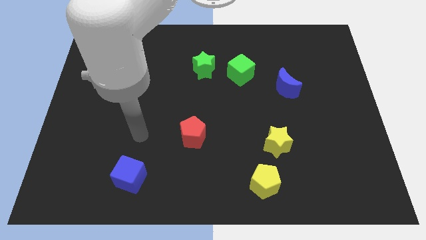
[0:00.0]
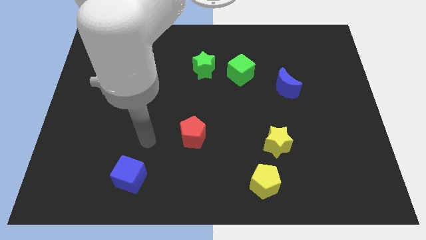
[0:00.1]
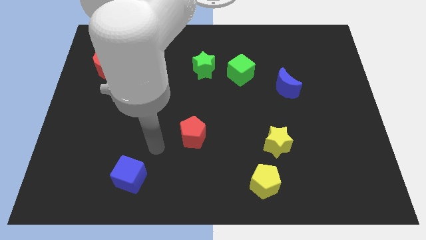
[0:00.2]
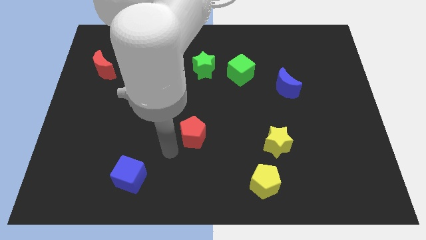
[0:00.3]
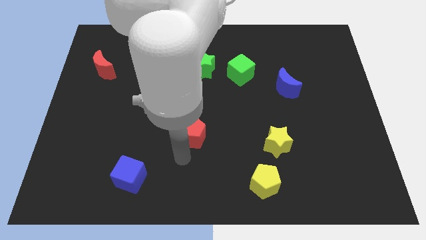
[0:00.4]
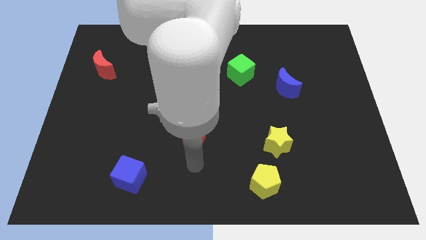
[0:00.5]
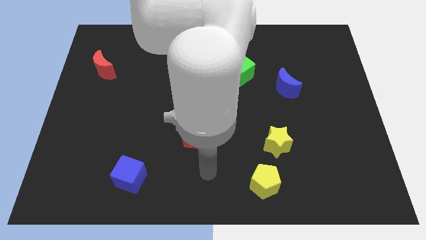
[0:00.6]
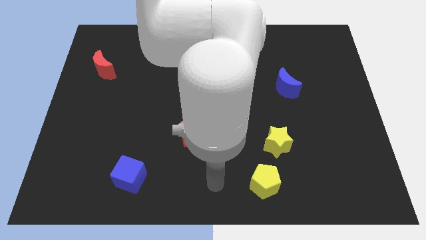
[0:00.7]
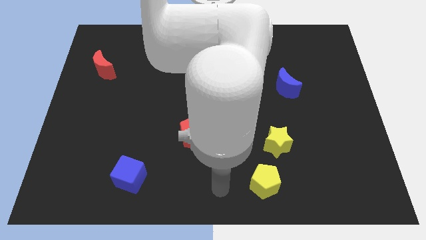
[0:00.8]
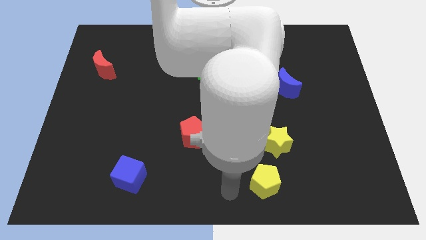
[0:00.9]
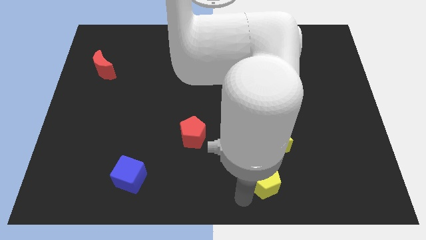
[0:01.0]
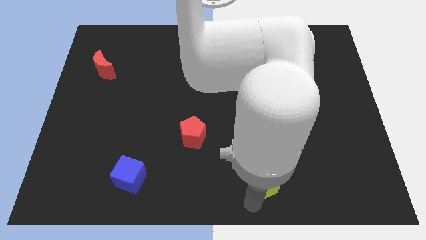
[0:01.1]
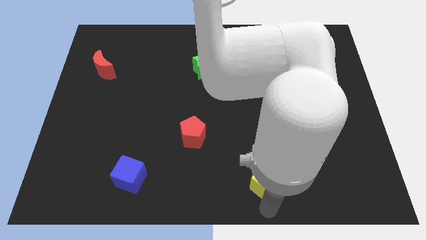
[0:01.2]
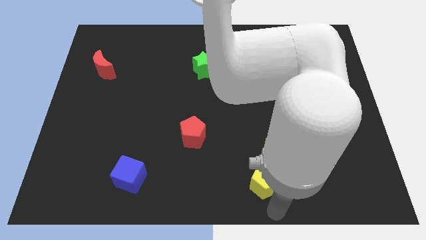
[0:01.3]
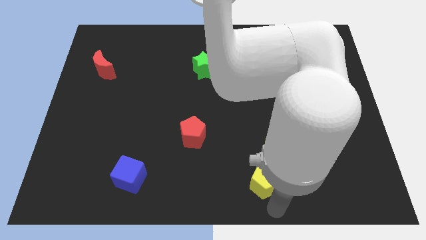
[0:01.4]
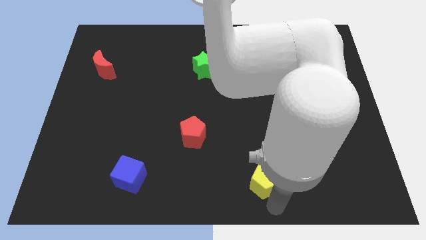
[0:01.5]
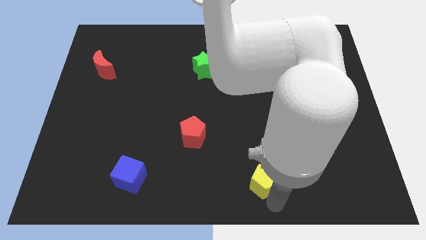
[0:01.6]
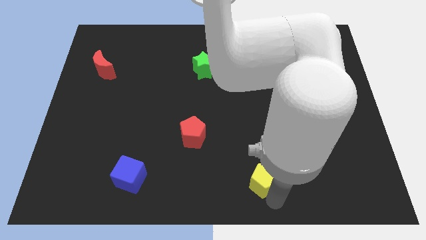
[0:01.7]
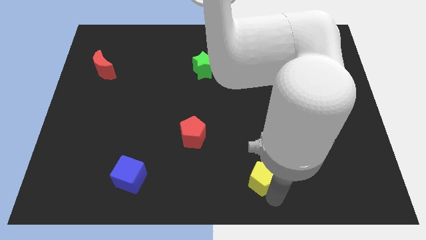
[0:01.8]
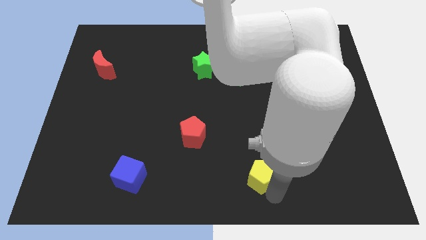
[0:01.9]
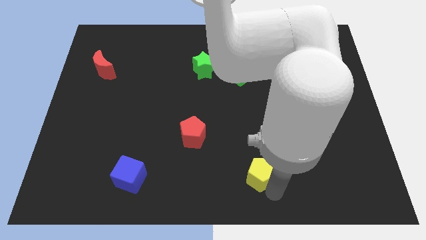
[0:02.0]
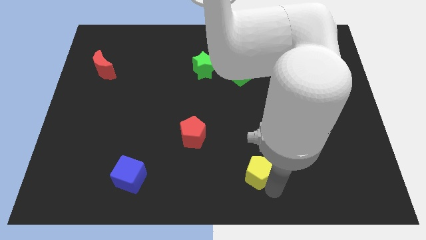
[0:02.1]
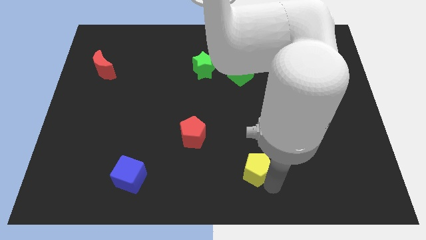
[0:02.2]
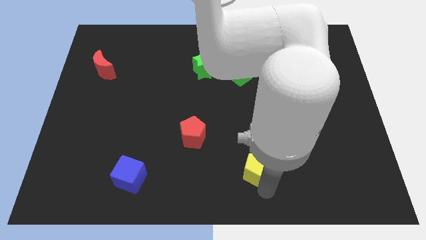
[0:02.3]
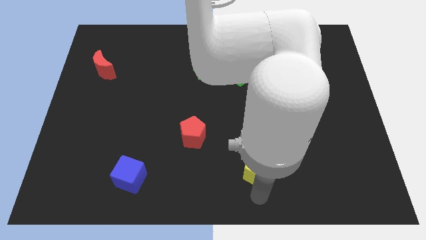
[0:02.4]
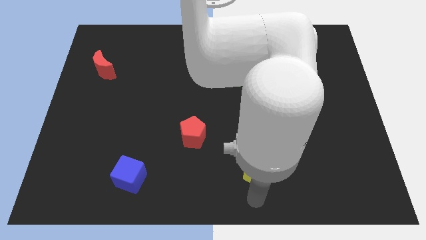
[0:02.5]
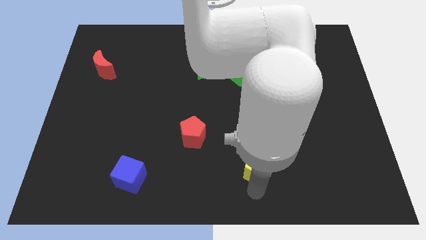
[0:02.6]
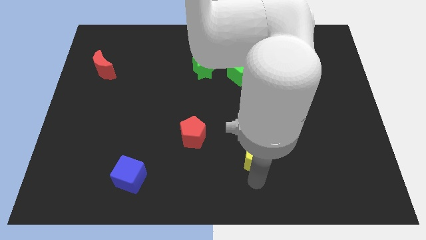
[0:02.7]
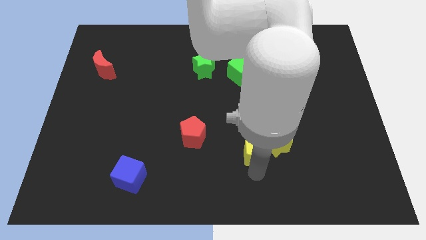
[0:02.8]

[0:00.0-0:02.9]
slightly push the yellow pentagon upwards

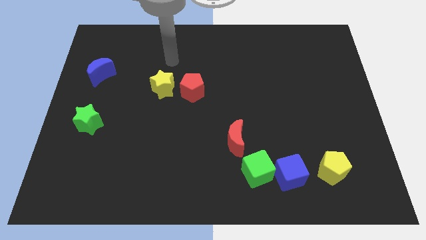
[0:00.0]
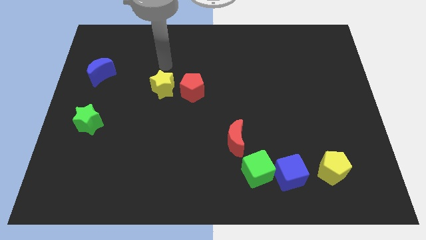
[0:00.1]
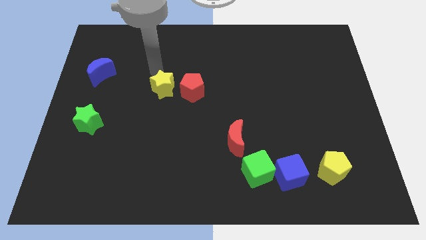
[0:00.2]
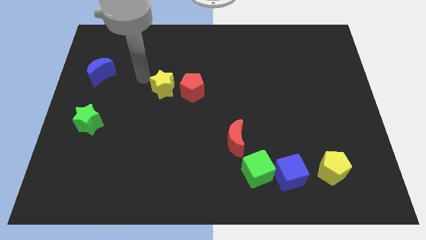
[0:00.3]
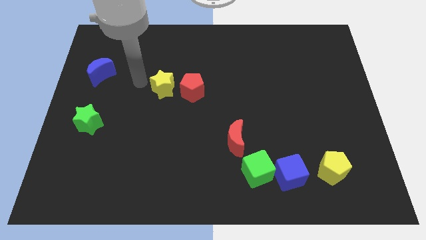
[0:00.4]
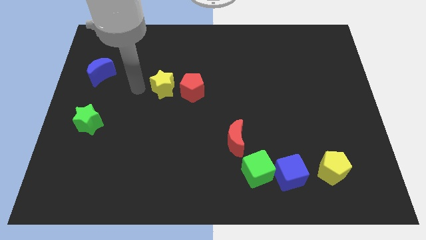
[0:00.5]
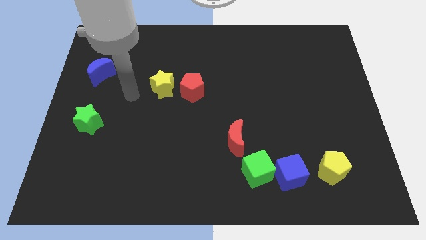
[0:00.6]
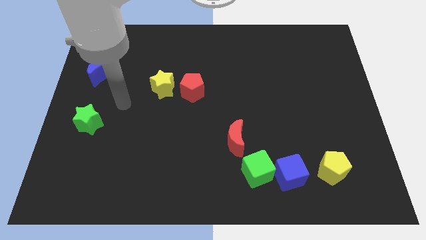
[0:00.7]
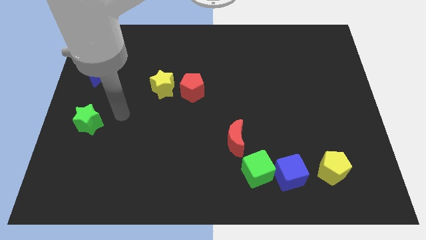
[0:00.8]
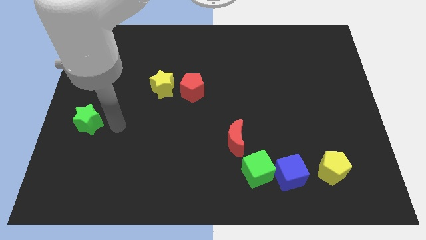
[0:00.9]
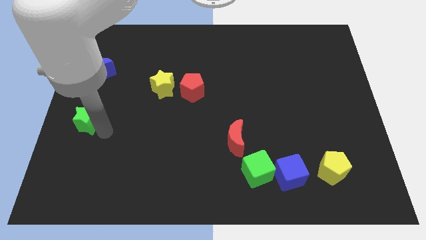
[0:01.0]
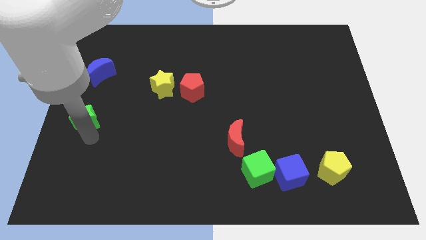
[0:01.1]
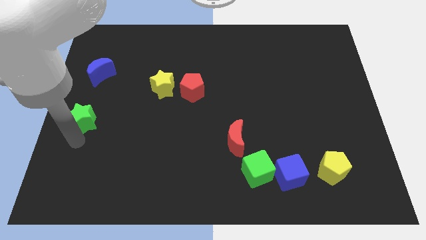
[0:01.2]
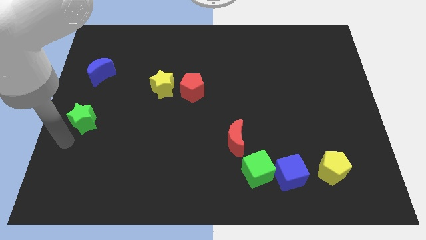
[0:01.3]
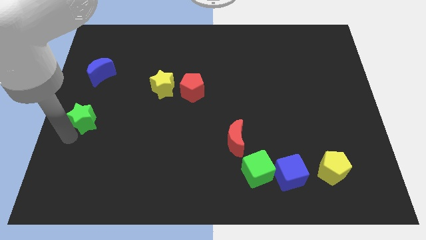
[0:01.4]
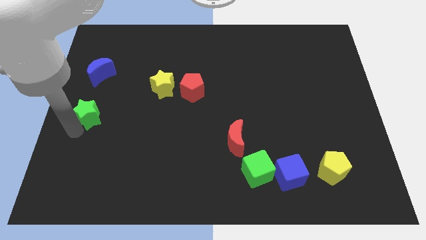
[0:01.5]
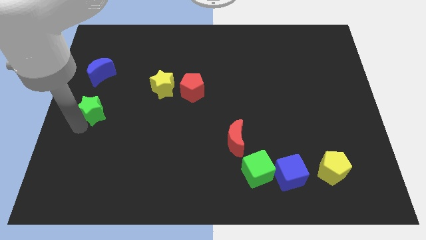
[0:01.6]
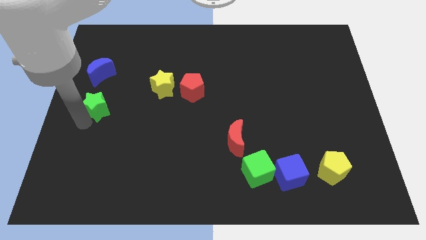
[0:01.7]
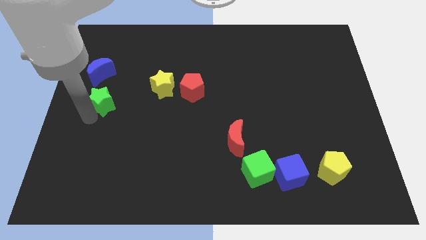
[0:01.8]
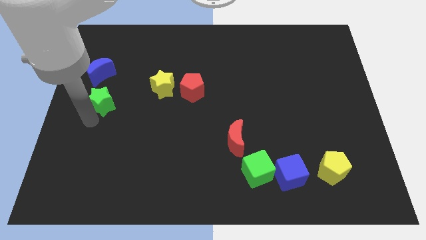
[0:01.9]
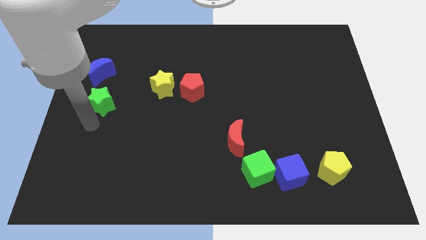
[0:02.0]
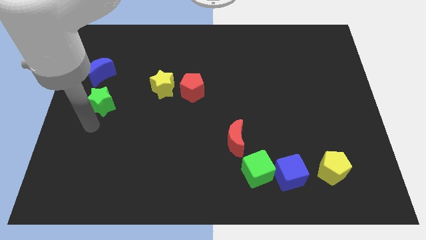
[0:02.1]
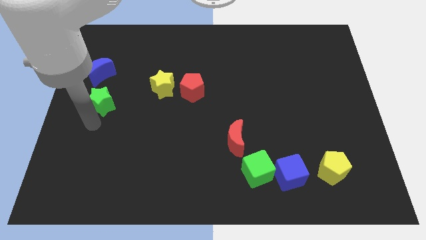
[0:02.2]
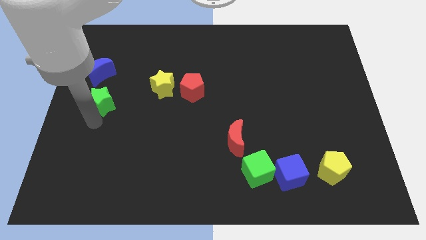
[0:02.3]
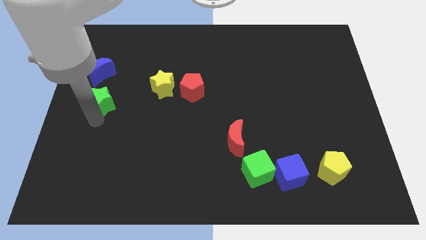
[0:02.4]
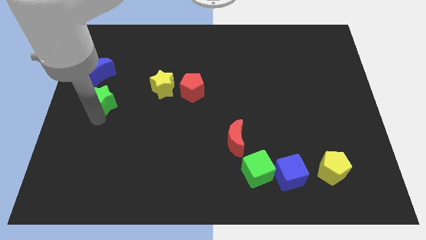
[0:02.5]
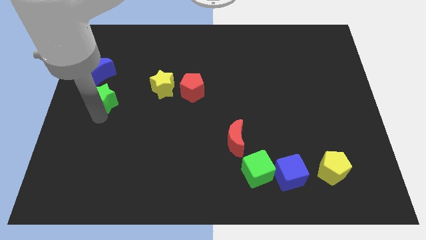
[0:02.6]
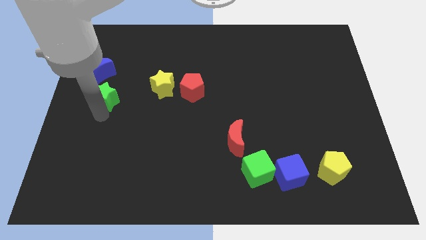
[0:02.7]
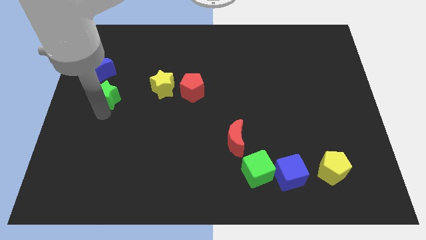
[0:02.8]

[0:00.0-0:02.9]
move the green star up somewhat

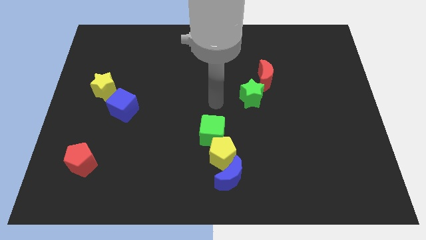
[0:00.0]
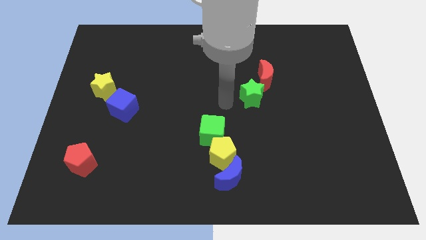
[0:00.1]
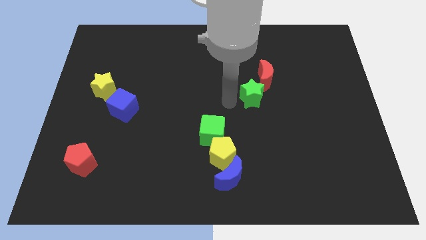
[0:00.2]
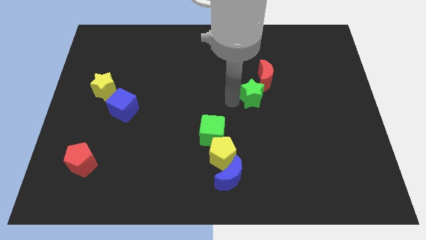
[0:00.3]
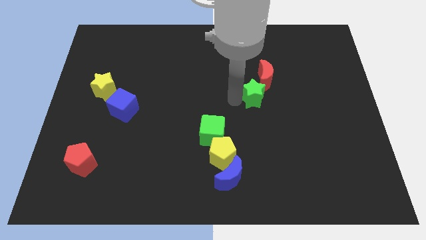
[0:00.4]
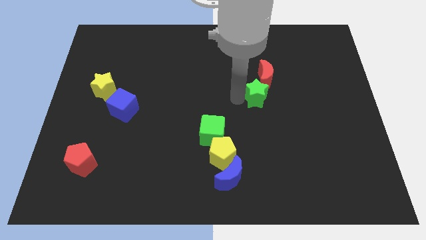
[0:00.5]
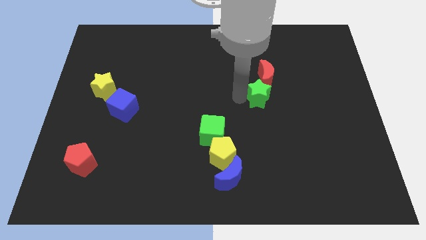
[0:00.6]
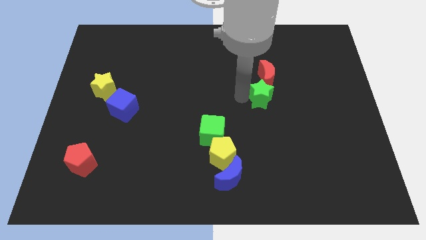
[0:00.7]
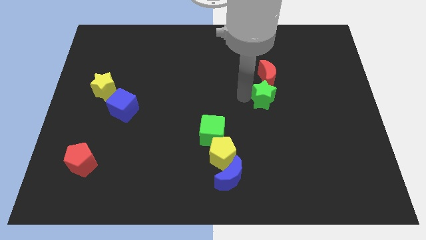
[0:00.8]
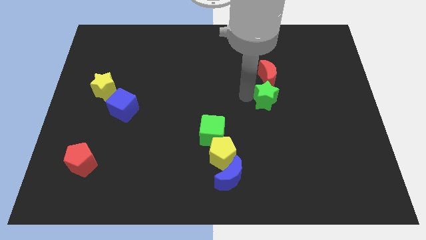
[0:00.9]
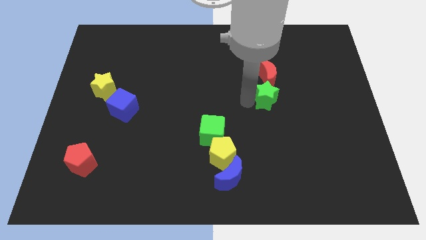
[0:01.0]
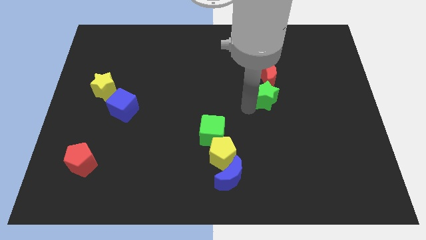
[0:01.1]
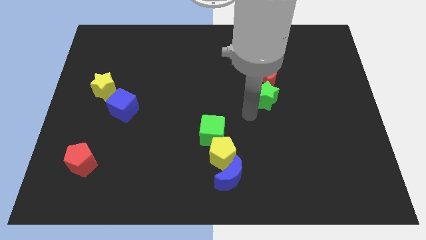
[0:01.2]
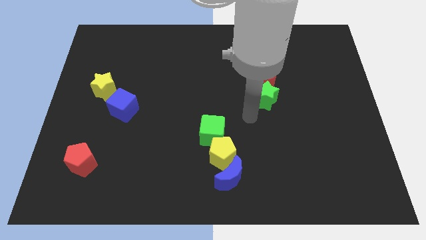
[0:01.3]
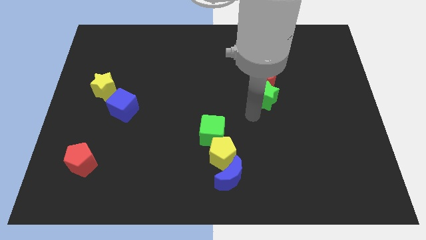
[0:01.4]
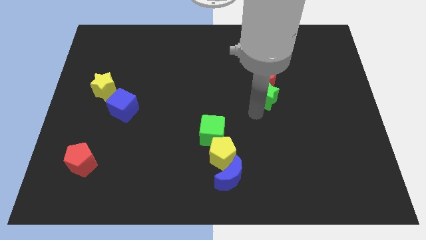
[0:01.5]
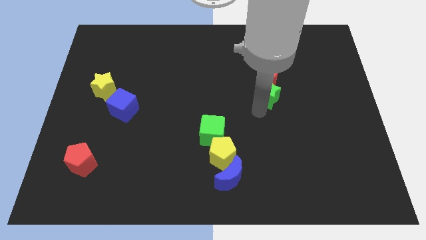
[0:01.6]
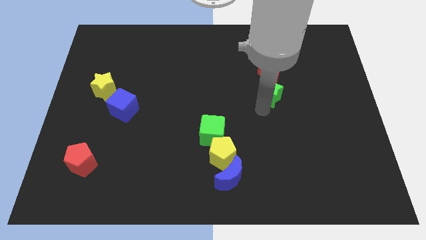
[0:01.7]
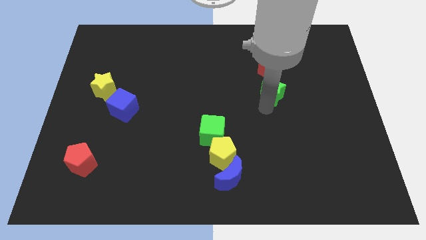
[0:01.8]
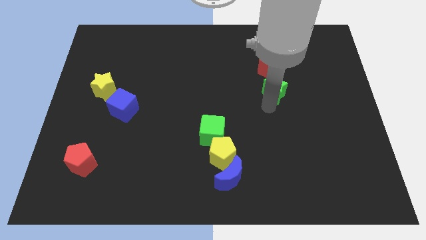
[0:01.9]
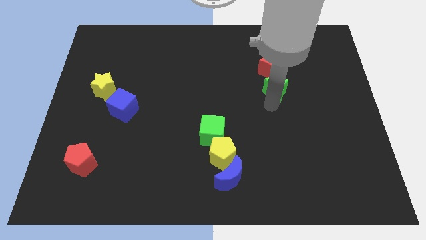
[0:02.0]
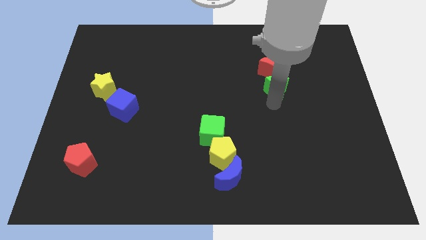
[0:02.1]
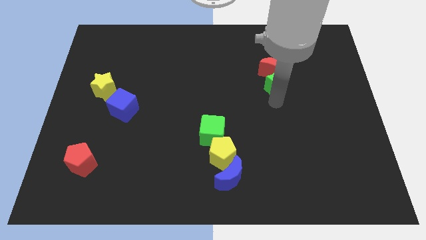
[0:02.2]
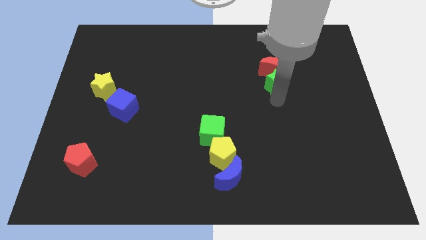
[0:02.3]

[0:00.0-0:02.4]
slightly slide the green star upwards and right diagonally
